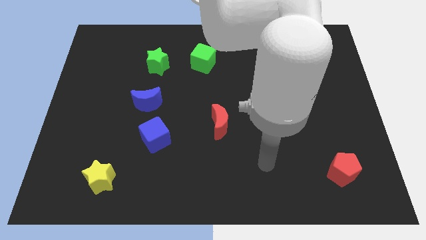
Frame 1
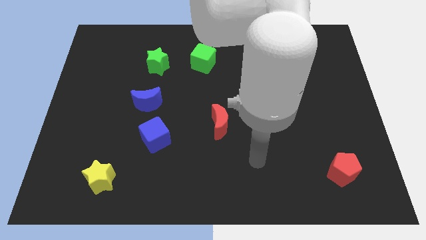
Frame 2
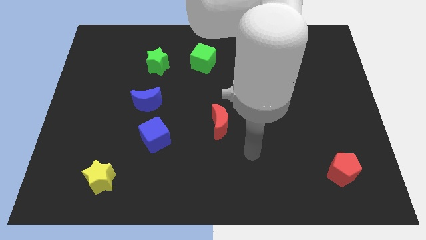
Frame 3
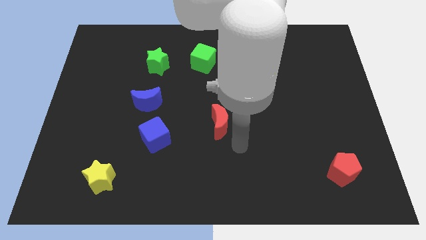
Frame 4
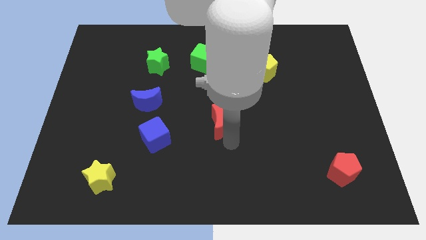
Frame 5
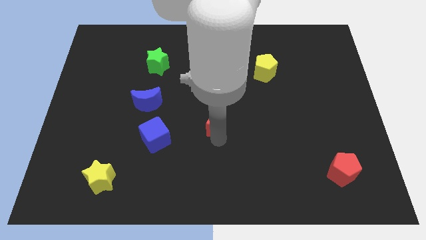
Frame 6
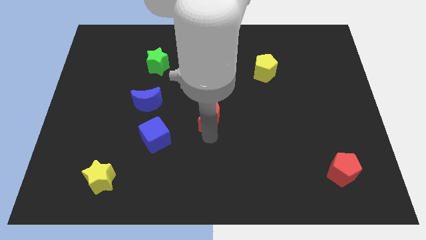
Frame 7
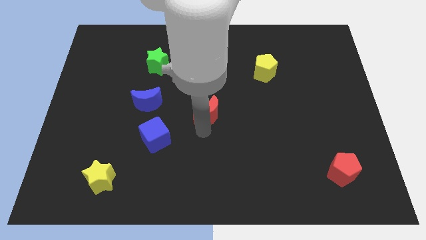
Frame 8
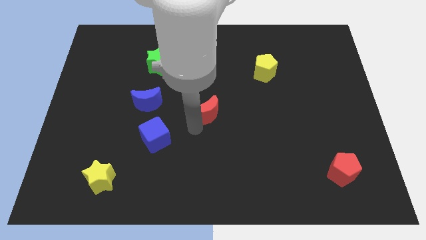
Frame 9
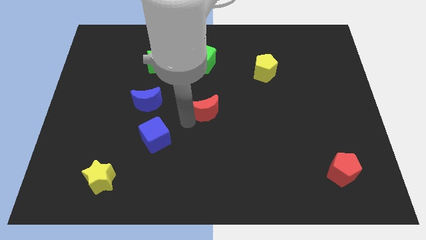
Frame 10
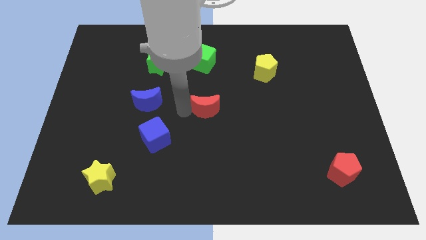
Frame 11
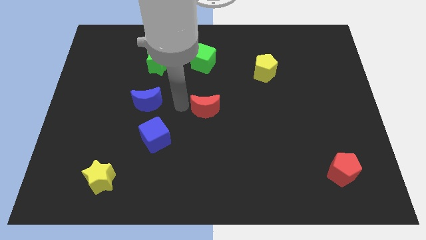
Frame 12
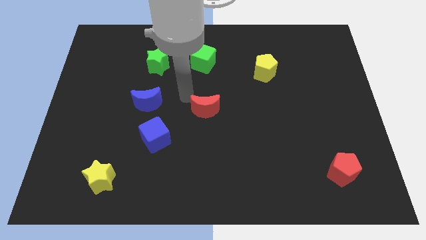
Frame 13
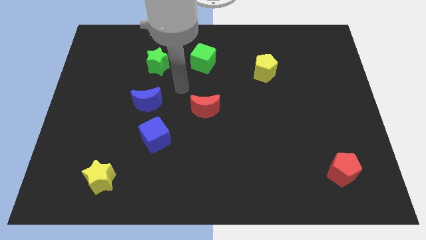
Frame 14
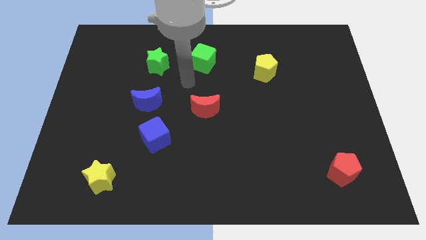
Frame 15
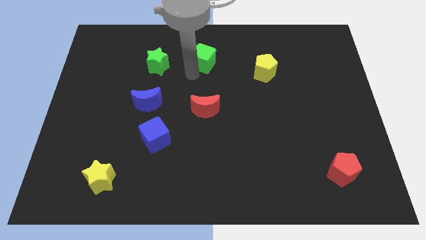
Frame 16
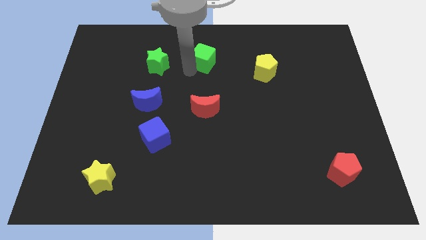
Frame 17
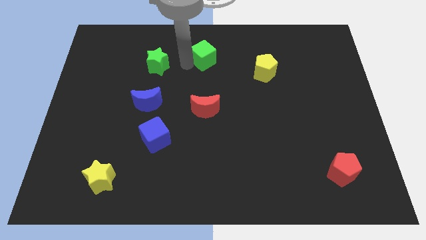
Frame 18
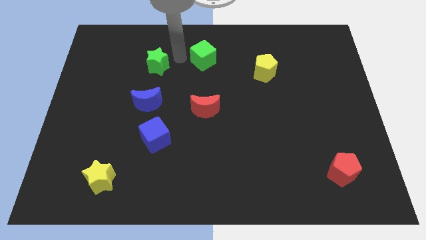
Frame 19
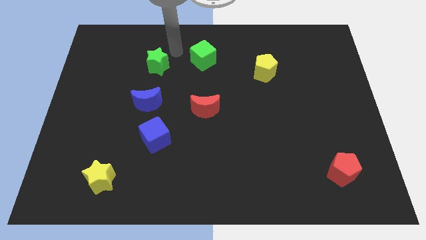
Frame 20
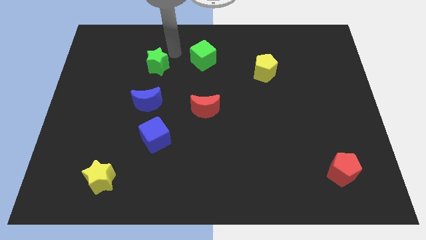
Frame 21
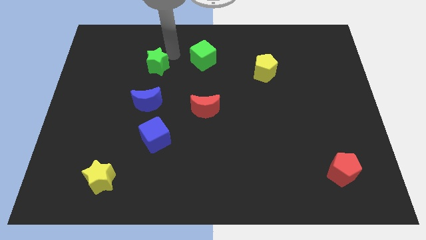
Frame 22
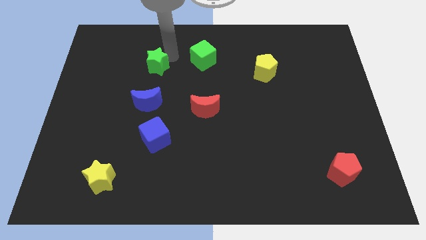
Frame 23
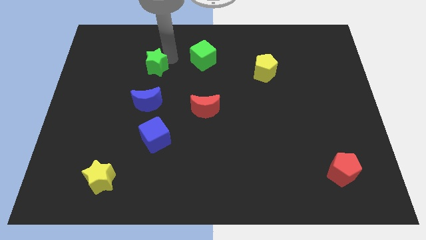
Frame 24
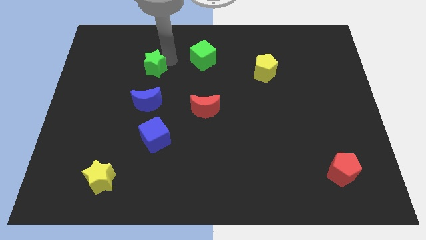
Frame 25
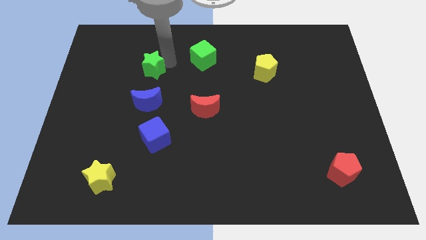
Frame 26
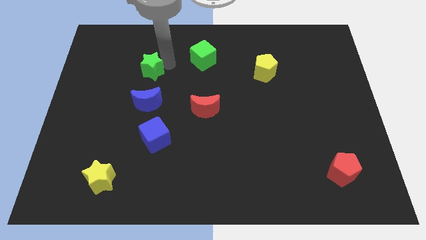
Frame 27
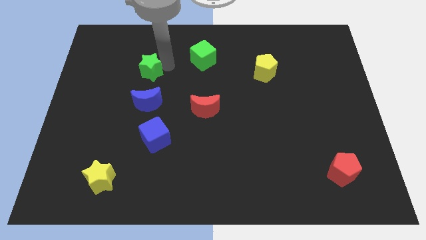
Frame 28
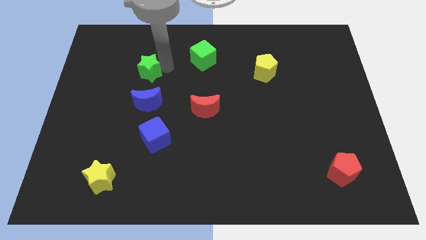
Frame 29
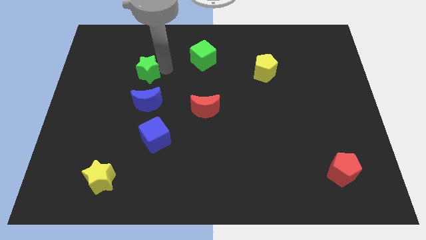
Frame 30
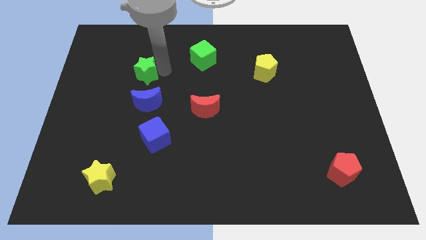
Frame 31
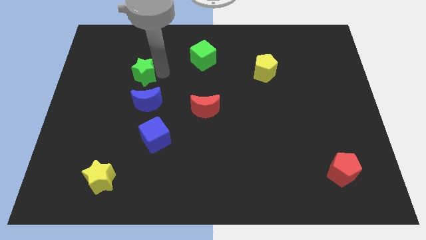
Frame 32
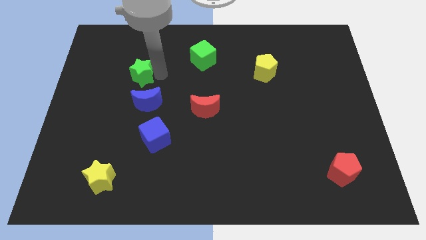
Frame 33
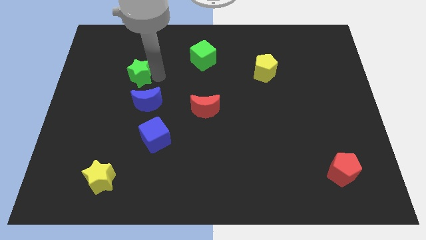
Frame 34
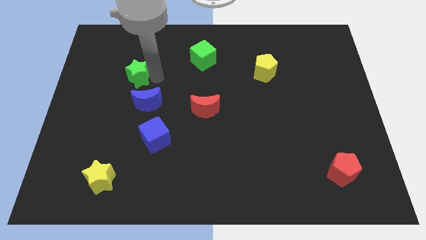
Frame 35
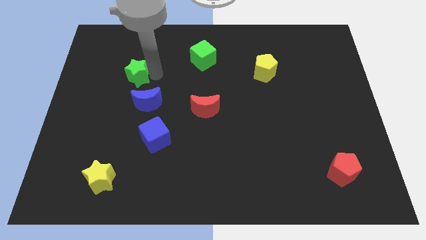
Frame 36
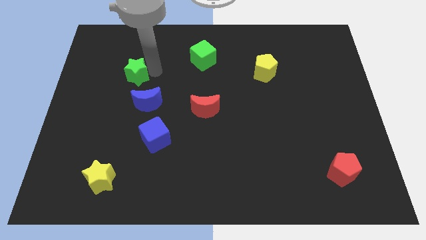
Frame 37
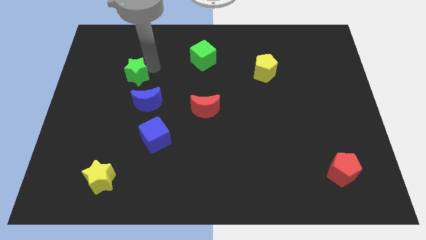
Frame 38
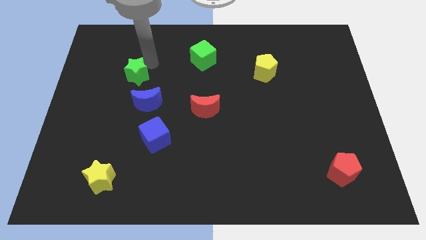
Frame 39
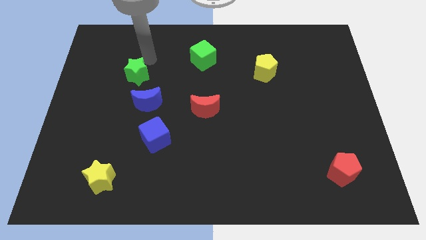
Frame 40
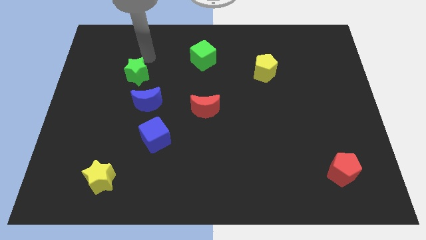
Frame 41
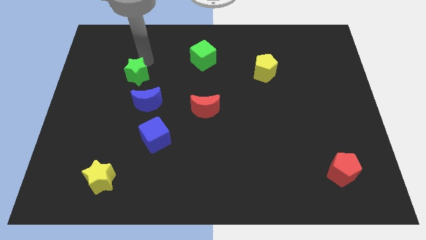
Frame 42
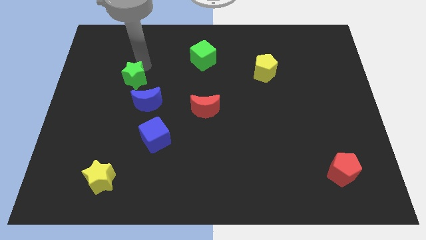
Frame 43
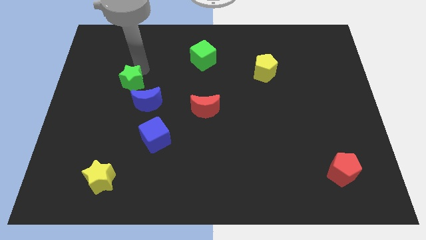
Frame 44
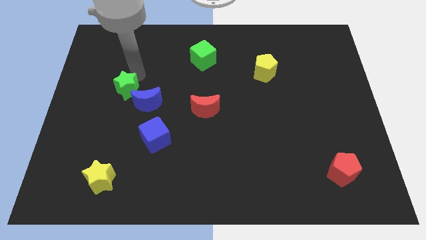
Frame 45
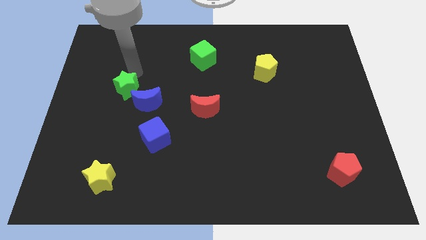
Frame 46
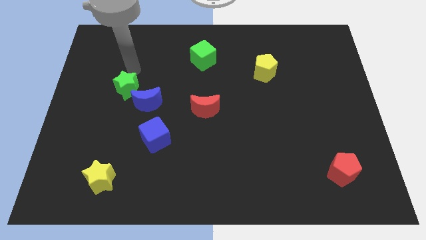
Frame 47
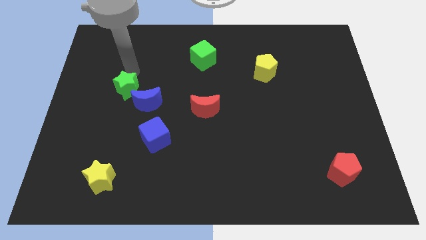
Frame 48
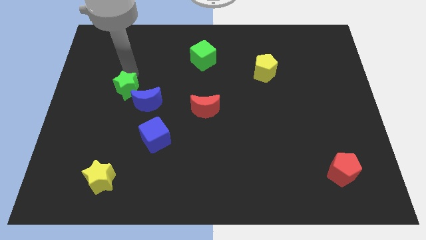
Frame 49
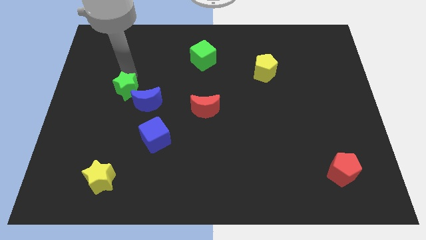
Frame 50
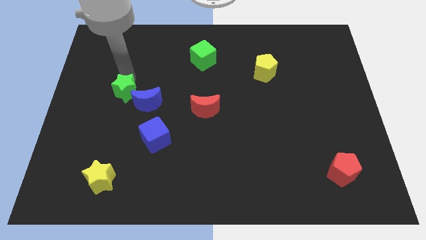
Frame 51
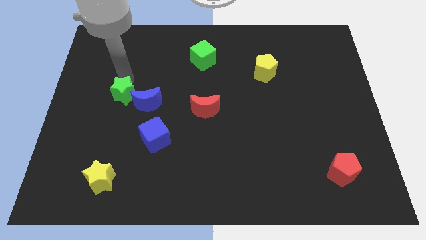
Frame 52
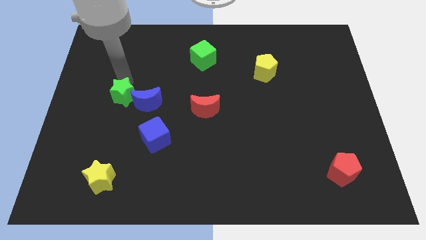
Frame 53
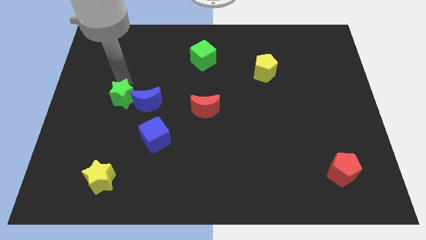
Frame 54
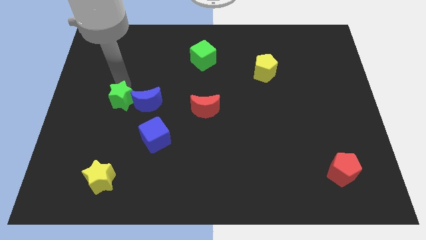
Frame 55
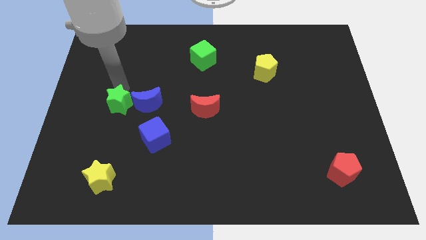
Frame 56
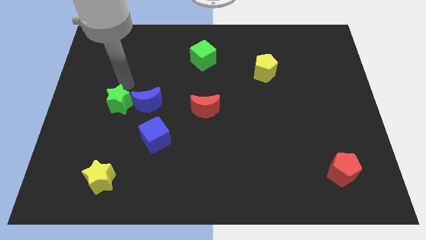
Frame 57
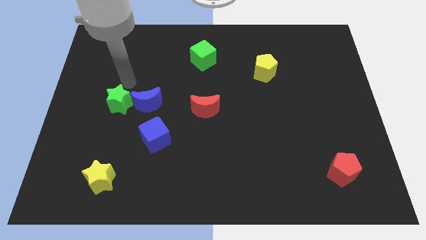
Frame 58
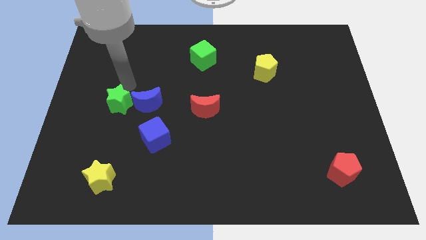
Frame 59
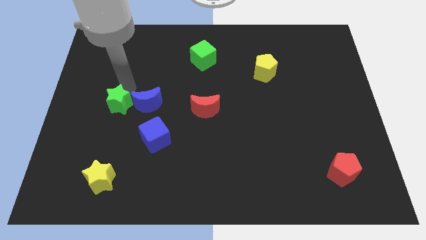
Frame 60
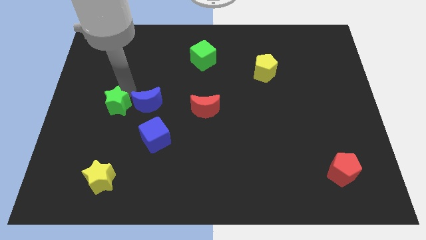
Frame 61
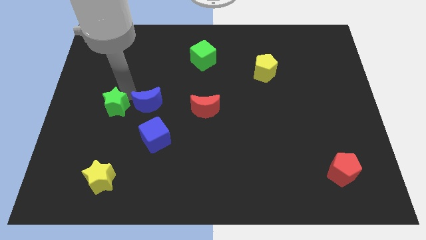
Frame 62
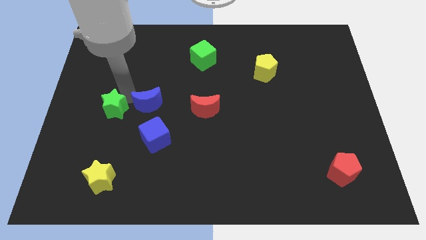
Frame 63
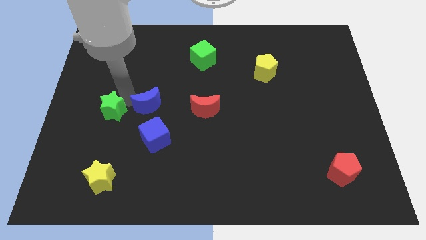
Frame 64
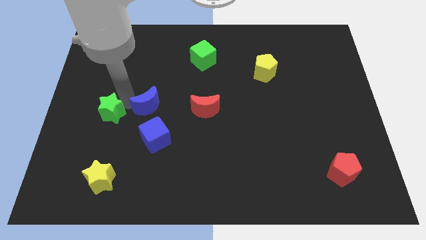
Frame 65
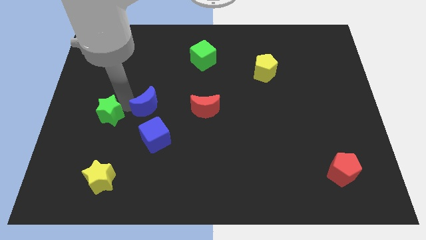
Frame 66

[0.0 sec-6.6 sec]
move the green star to the top side of the yellow star

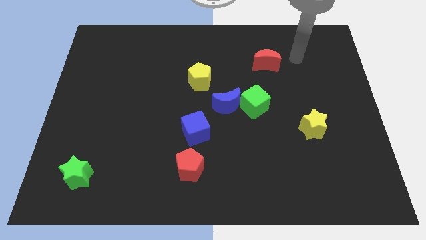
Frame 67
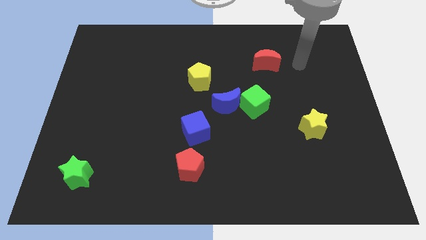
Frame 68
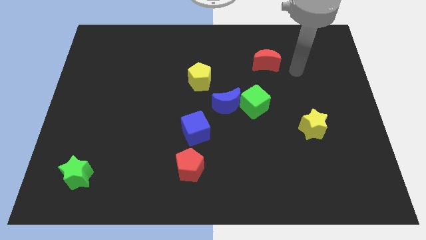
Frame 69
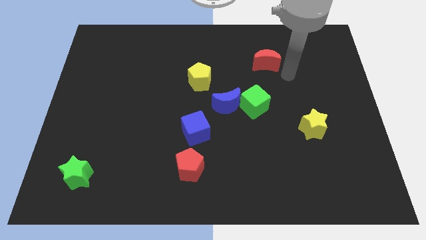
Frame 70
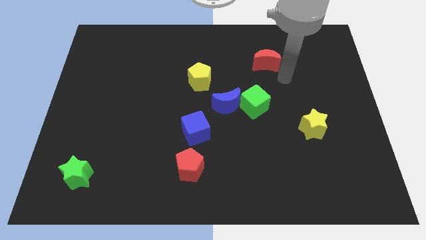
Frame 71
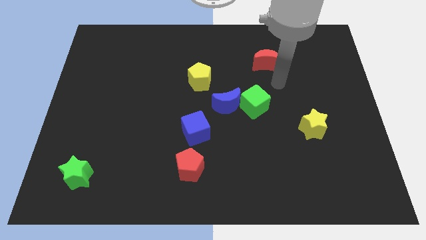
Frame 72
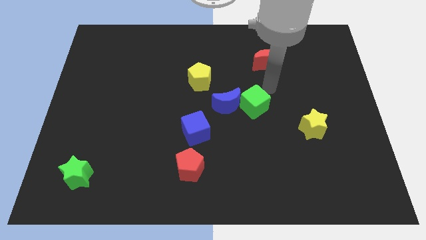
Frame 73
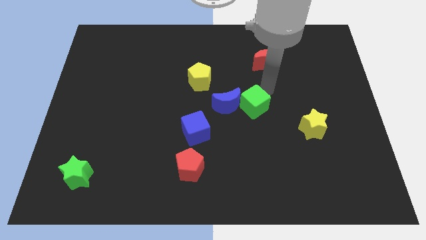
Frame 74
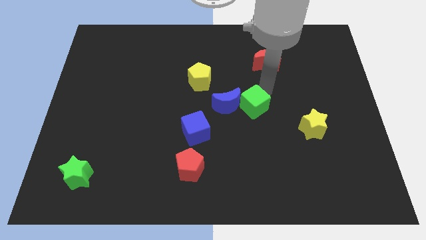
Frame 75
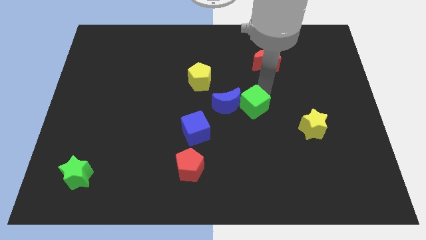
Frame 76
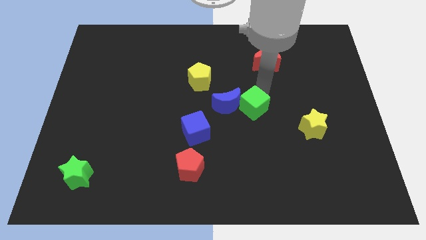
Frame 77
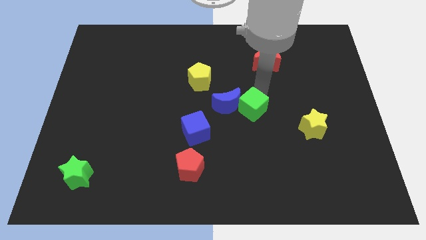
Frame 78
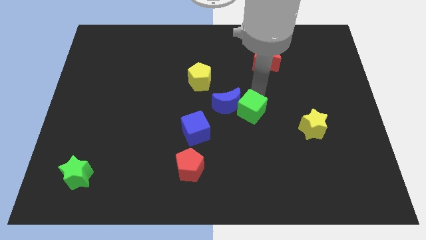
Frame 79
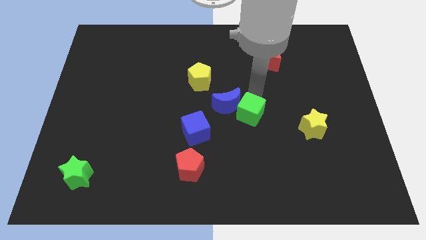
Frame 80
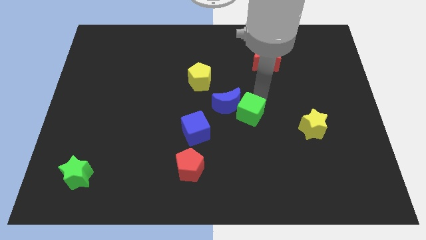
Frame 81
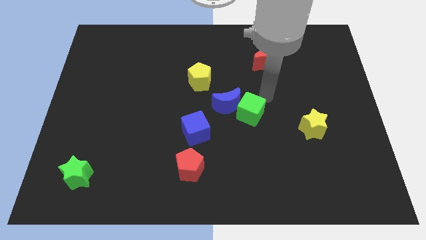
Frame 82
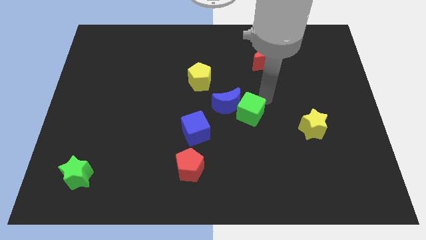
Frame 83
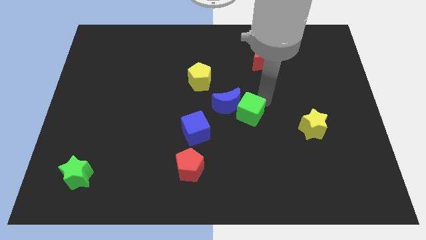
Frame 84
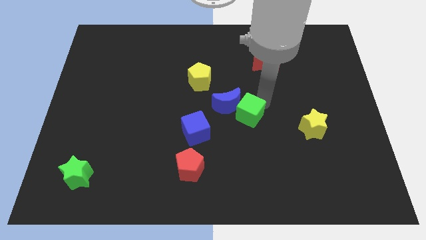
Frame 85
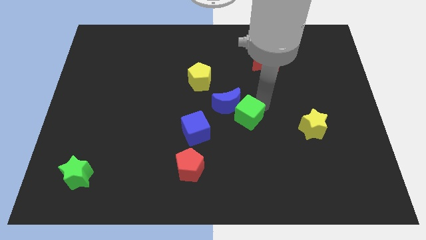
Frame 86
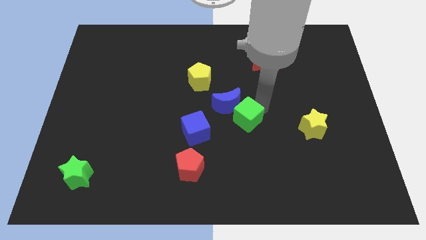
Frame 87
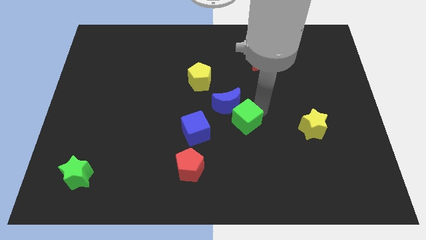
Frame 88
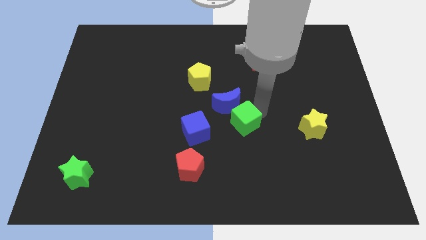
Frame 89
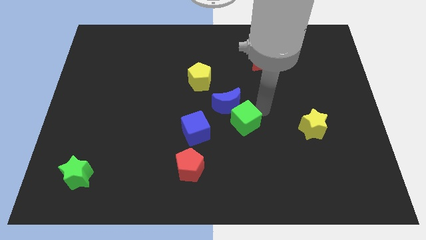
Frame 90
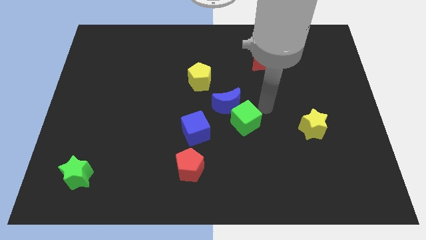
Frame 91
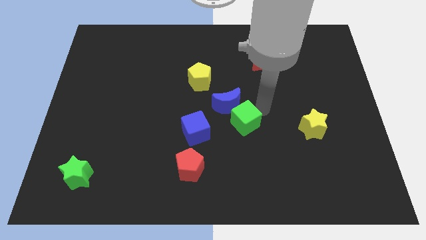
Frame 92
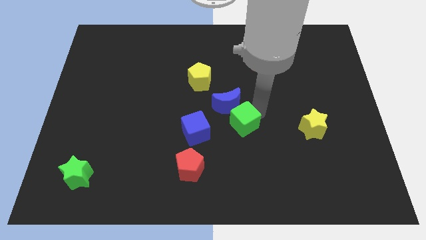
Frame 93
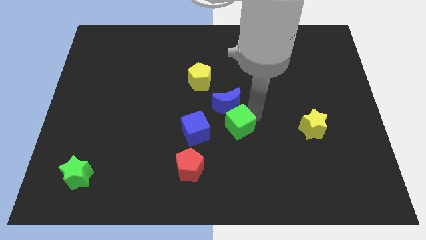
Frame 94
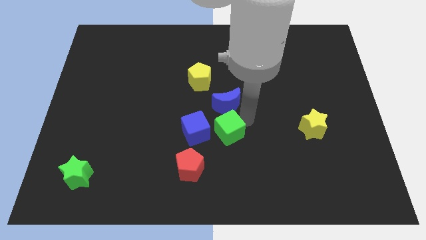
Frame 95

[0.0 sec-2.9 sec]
move the green cube to the top right side of the red pentagon
